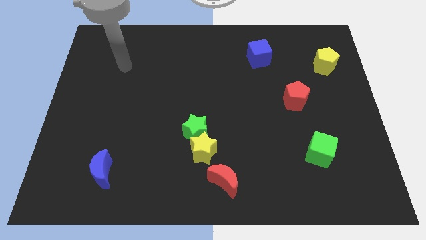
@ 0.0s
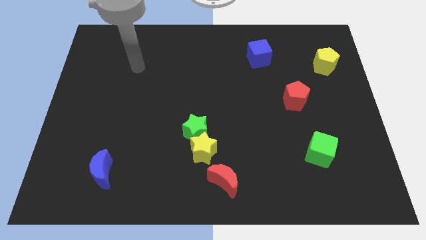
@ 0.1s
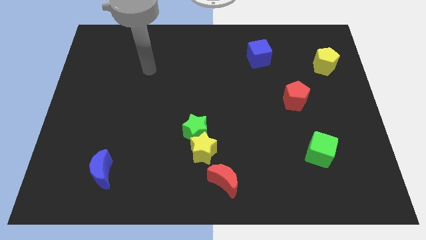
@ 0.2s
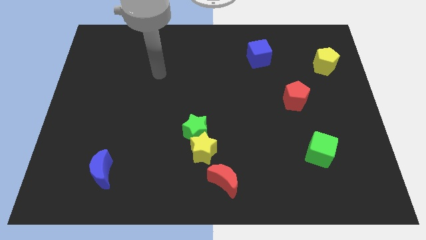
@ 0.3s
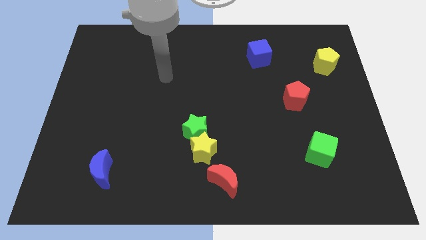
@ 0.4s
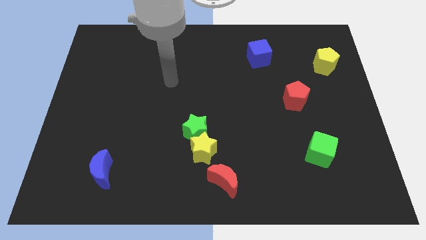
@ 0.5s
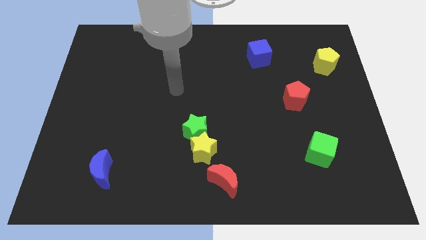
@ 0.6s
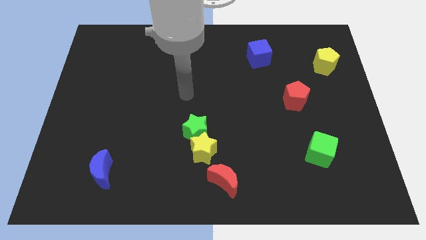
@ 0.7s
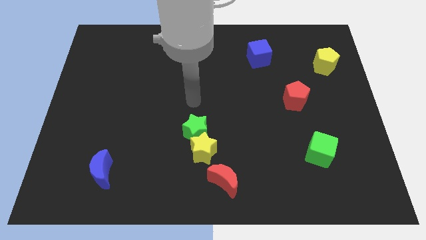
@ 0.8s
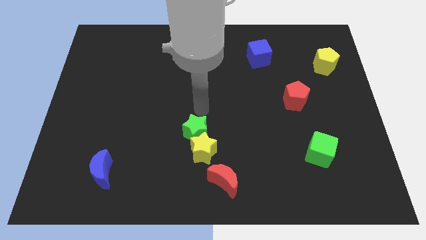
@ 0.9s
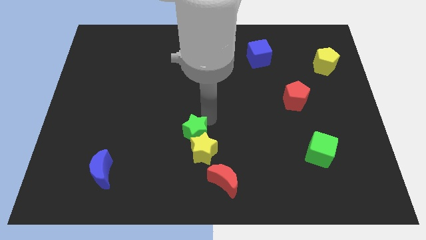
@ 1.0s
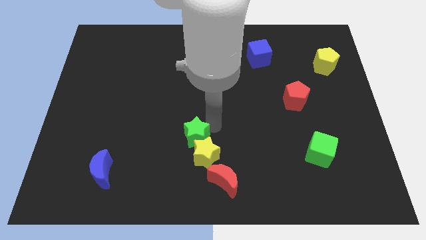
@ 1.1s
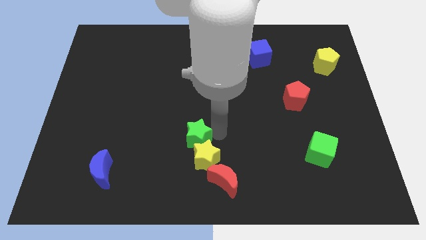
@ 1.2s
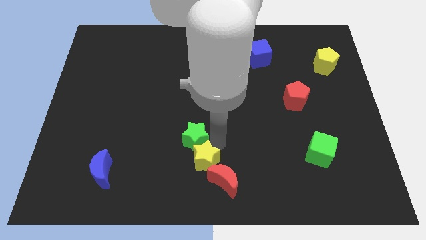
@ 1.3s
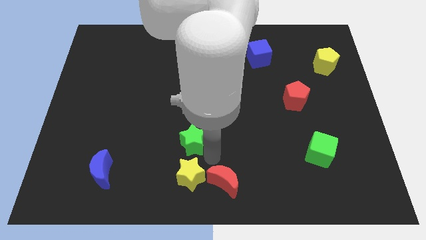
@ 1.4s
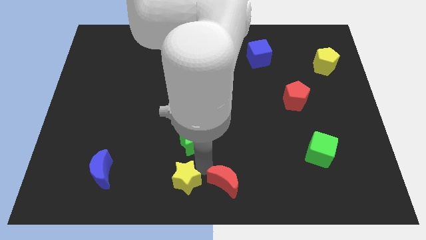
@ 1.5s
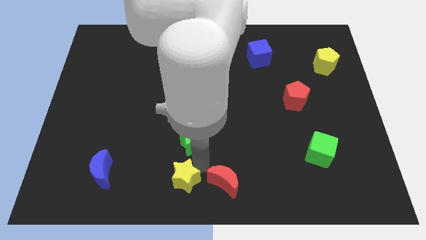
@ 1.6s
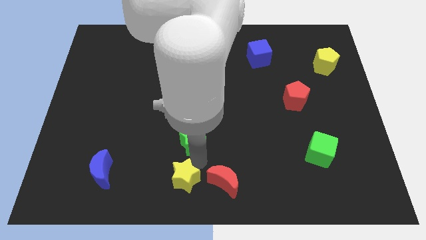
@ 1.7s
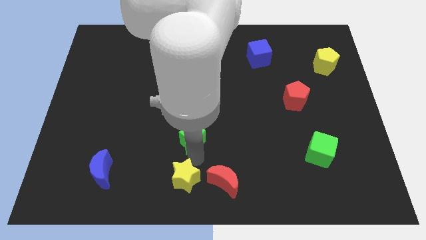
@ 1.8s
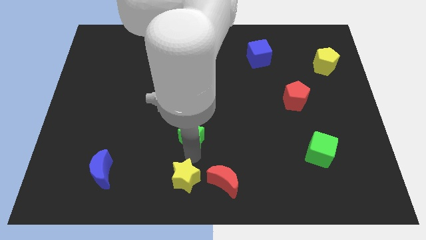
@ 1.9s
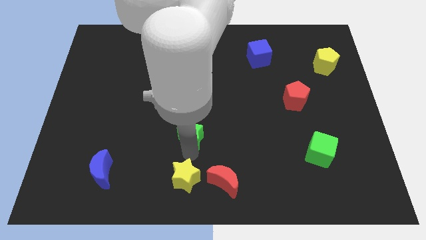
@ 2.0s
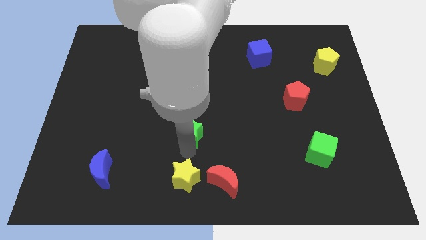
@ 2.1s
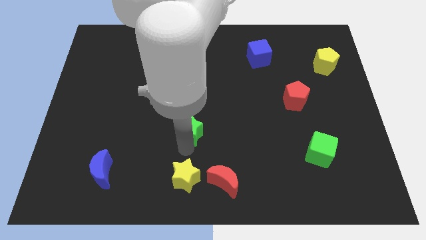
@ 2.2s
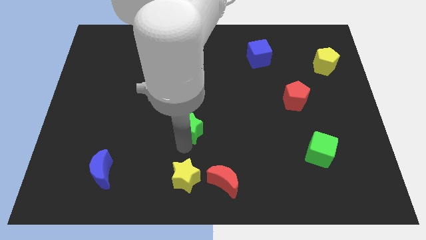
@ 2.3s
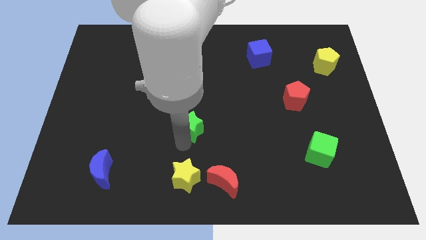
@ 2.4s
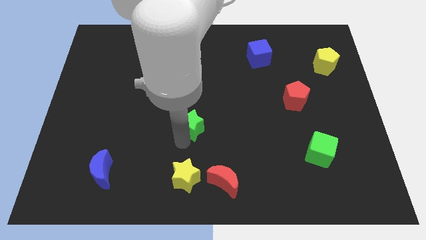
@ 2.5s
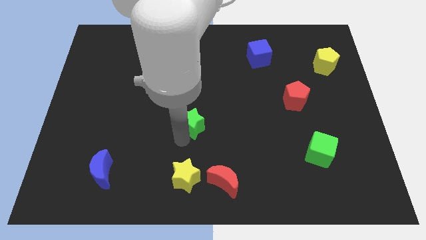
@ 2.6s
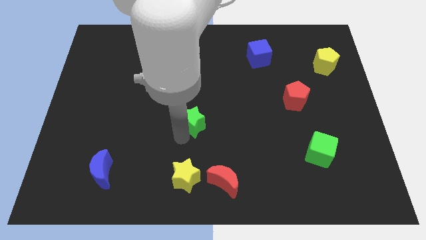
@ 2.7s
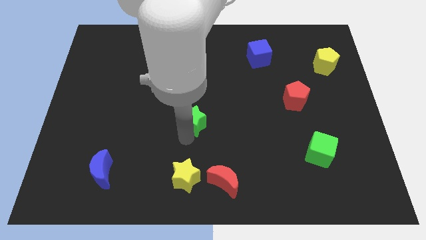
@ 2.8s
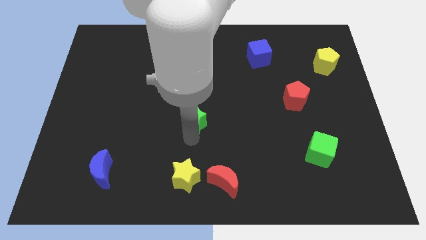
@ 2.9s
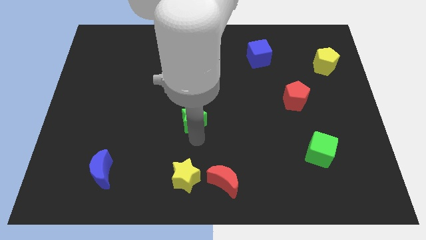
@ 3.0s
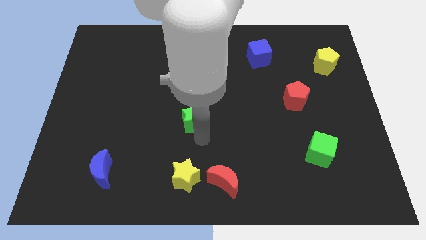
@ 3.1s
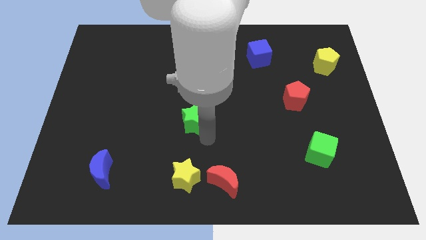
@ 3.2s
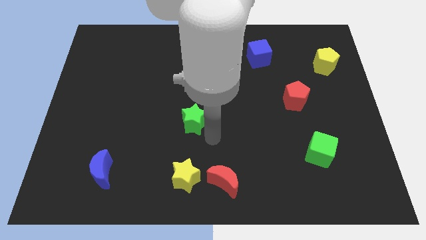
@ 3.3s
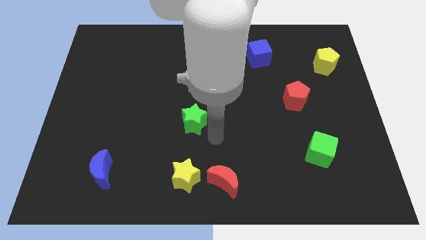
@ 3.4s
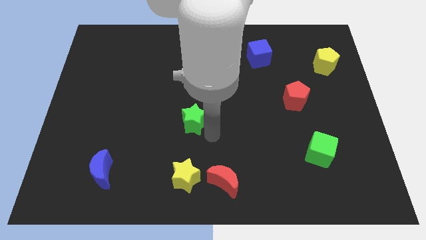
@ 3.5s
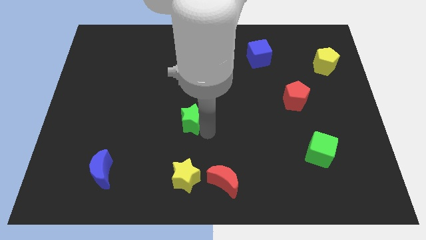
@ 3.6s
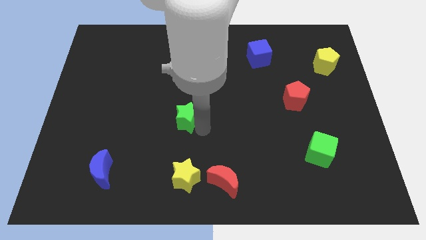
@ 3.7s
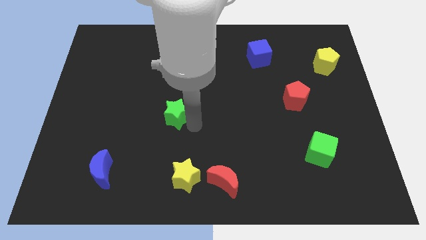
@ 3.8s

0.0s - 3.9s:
move the green star a bit upwards and then to the left

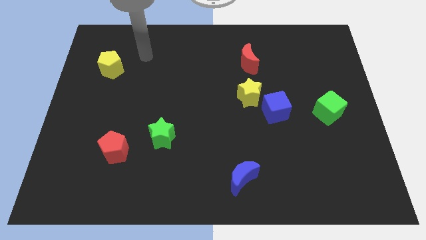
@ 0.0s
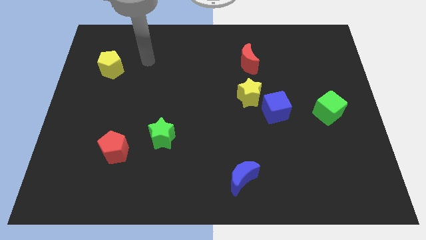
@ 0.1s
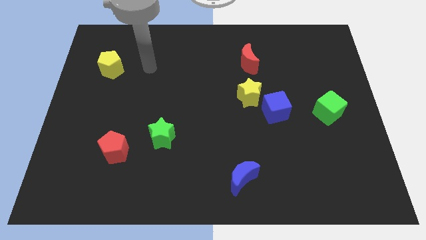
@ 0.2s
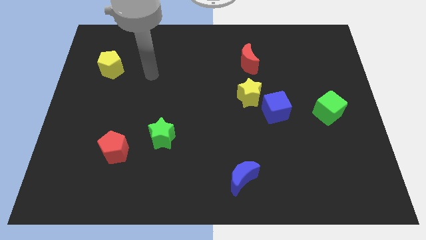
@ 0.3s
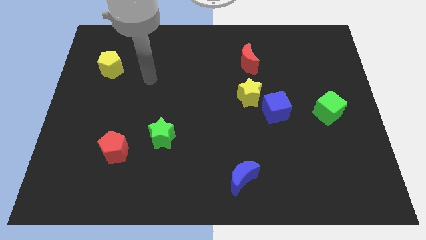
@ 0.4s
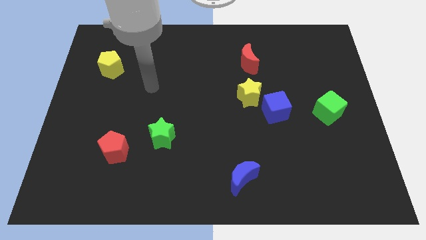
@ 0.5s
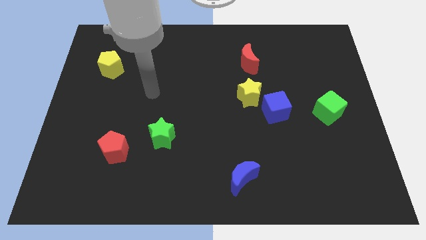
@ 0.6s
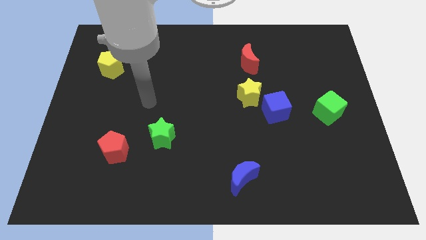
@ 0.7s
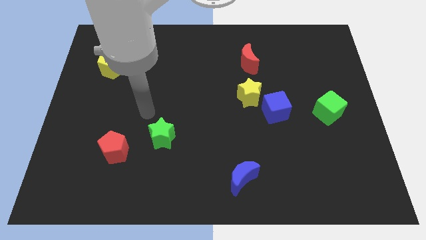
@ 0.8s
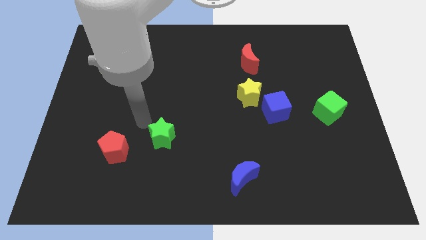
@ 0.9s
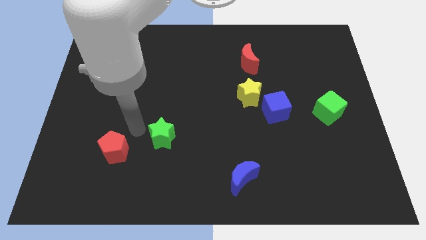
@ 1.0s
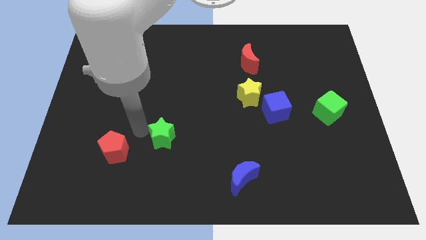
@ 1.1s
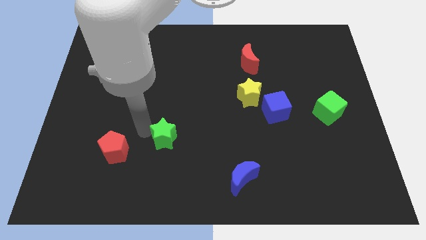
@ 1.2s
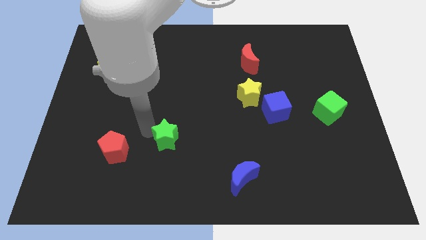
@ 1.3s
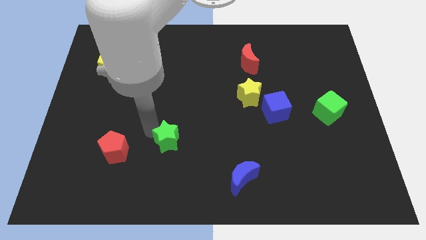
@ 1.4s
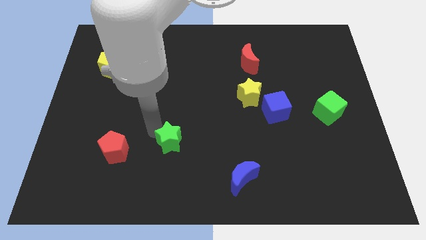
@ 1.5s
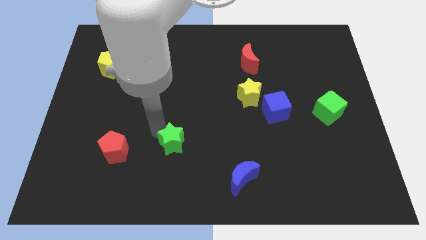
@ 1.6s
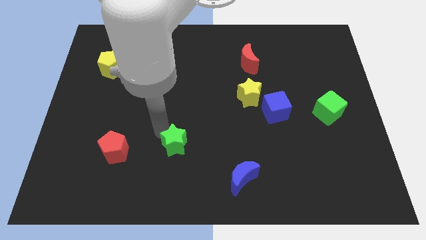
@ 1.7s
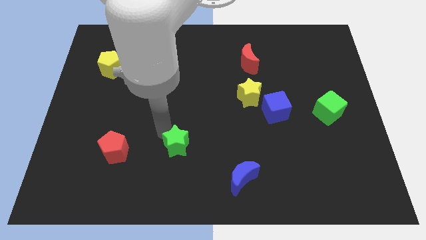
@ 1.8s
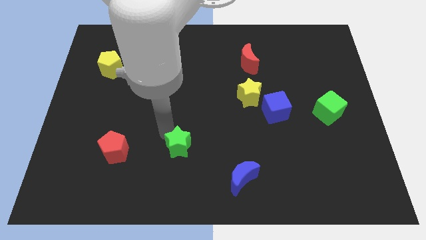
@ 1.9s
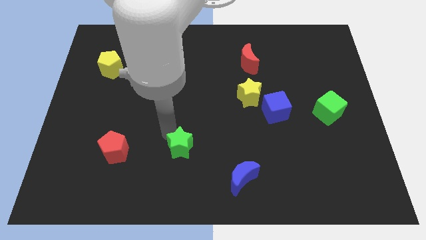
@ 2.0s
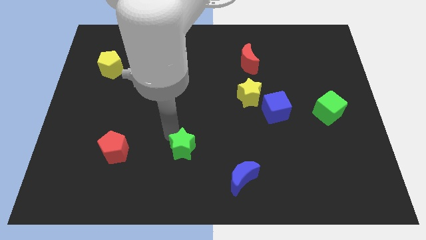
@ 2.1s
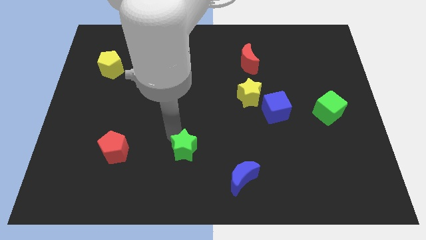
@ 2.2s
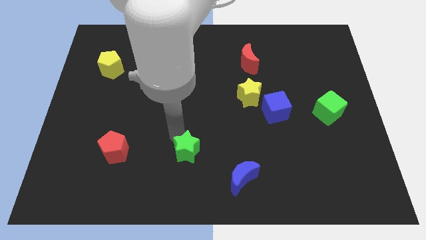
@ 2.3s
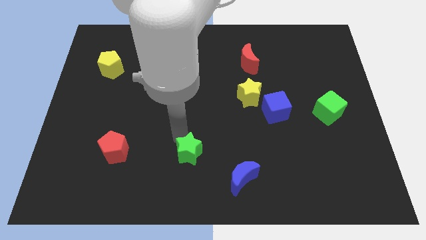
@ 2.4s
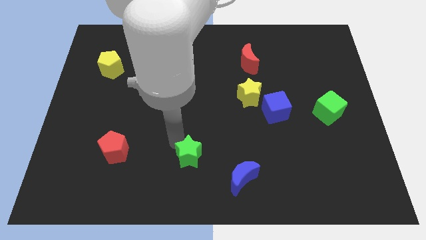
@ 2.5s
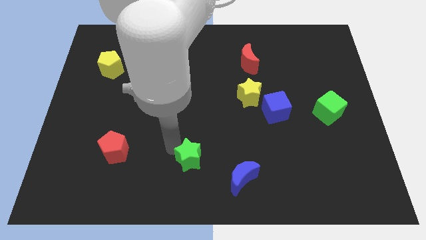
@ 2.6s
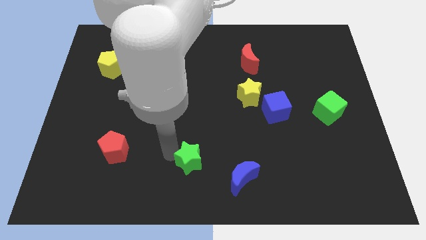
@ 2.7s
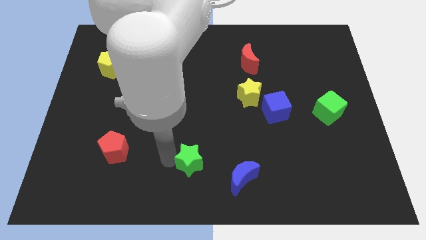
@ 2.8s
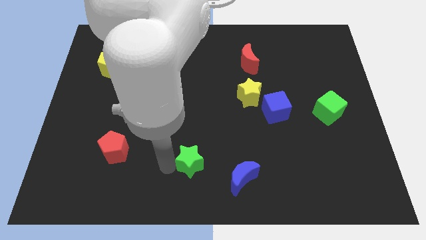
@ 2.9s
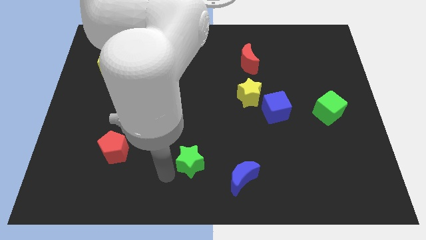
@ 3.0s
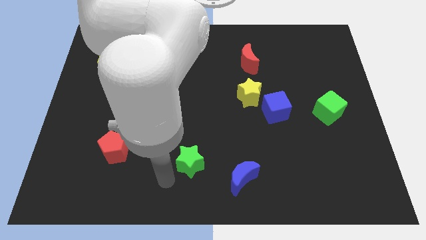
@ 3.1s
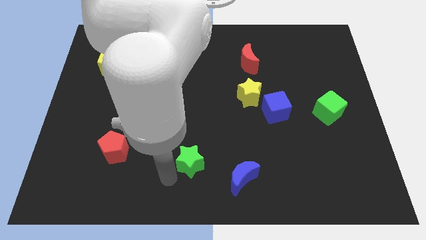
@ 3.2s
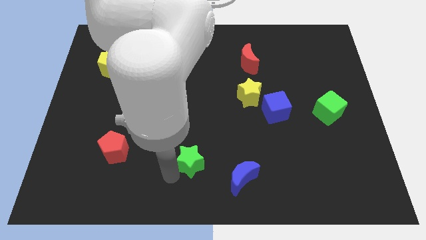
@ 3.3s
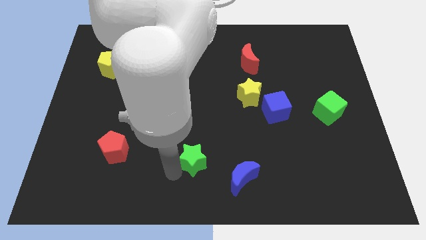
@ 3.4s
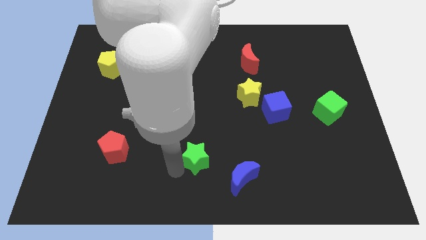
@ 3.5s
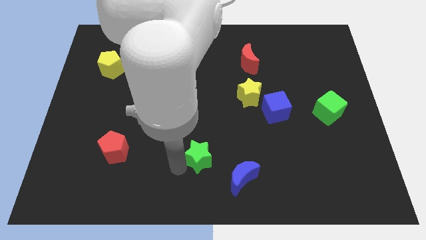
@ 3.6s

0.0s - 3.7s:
slightly move the green star right

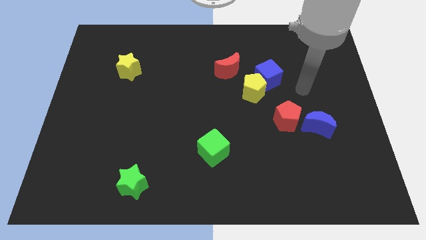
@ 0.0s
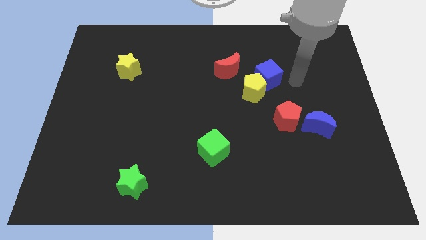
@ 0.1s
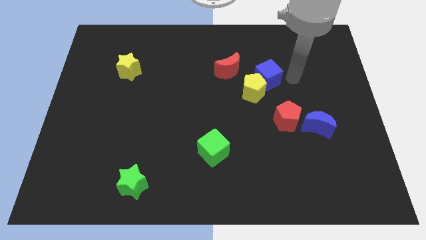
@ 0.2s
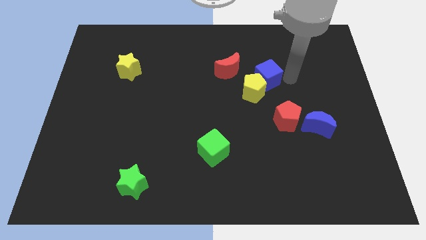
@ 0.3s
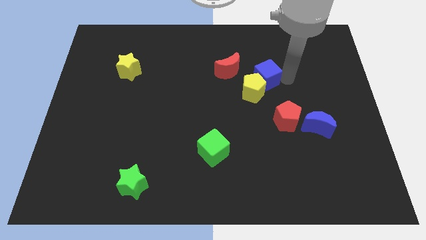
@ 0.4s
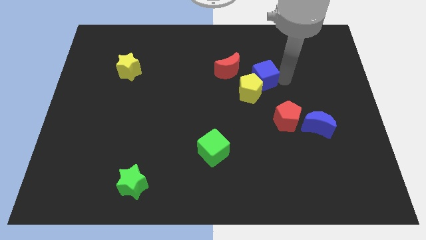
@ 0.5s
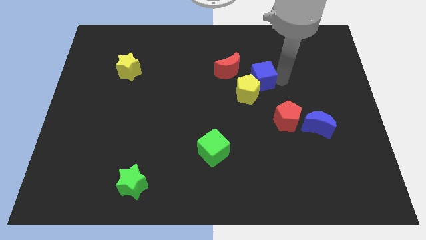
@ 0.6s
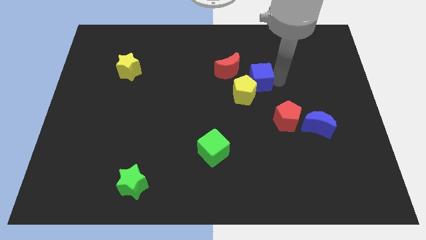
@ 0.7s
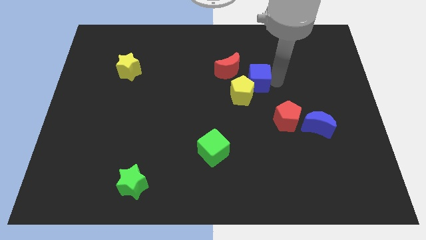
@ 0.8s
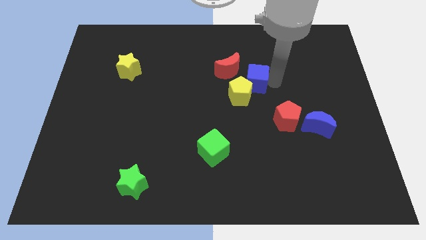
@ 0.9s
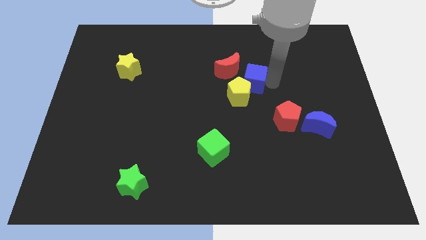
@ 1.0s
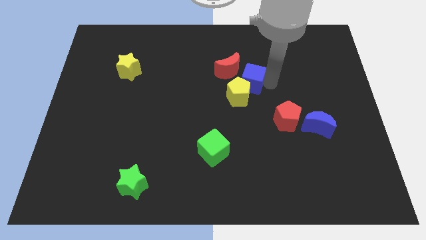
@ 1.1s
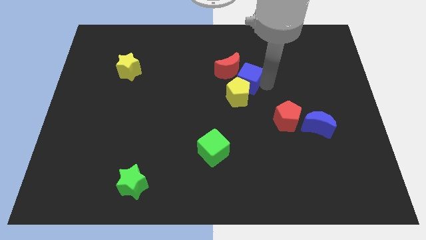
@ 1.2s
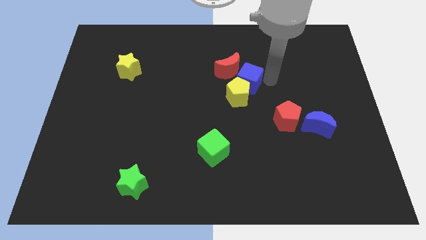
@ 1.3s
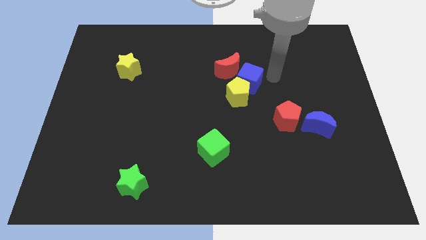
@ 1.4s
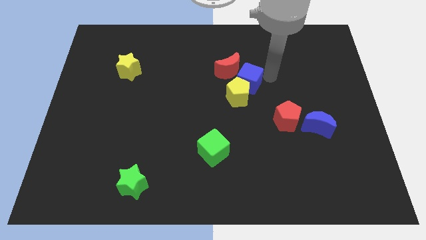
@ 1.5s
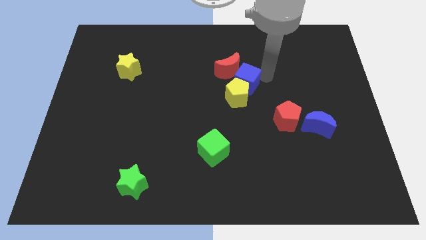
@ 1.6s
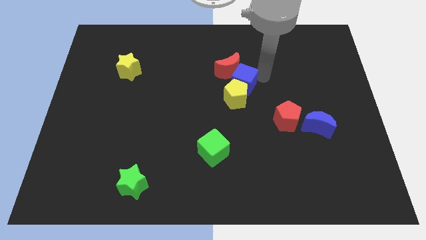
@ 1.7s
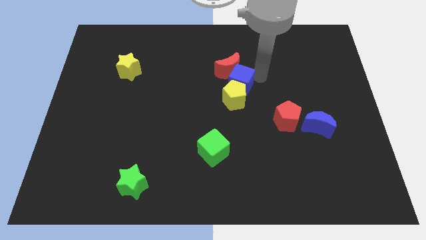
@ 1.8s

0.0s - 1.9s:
slightly move the blue cube left
